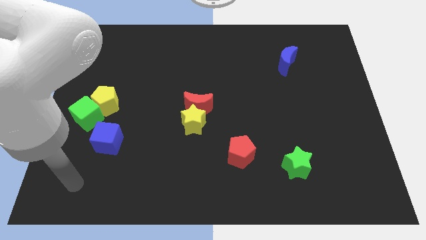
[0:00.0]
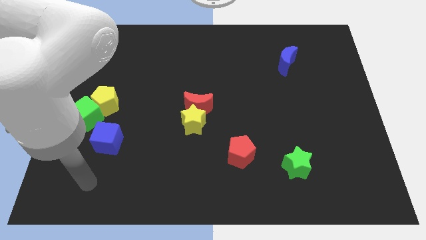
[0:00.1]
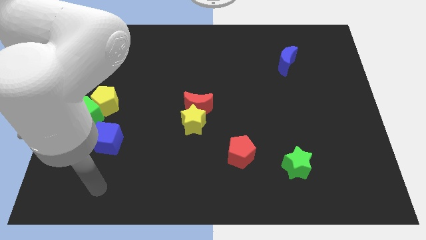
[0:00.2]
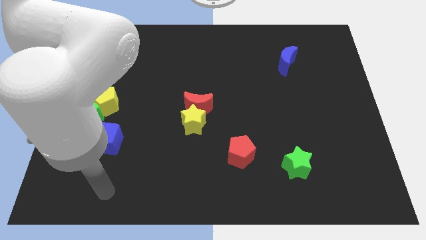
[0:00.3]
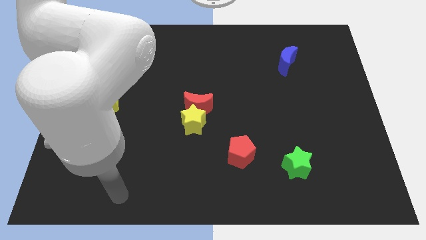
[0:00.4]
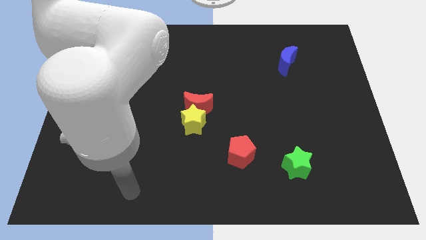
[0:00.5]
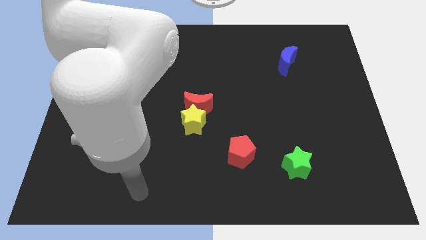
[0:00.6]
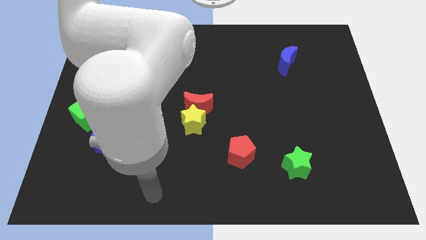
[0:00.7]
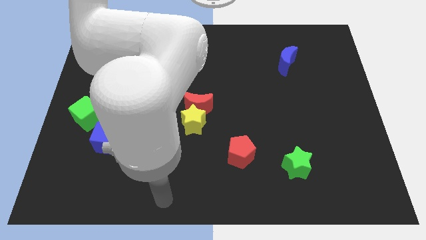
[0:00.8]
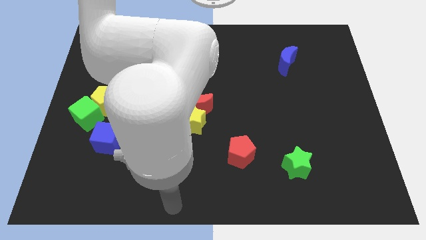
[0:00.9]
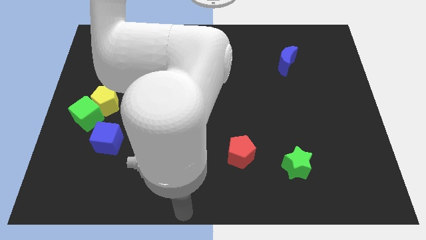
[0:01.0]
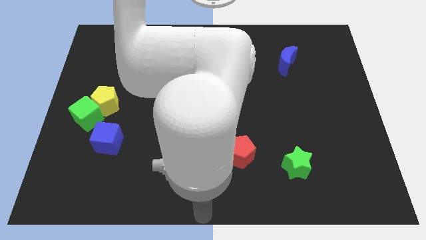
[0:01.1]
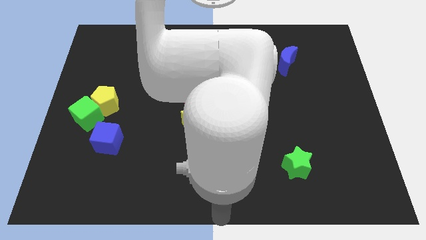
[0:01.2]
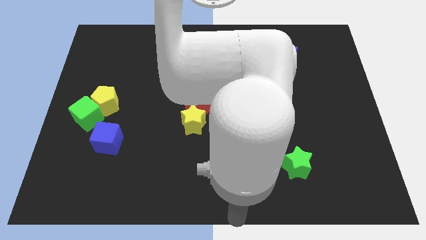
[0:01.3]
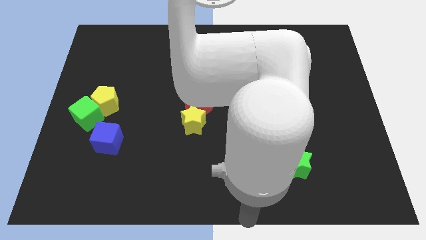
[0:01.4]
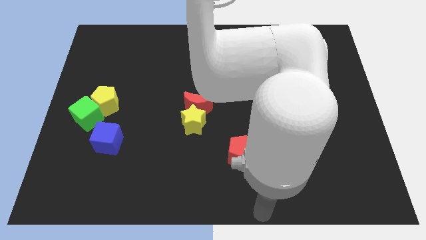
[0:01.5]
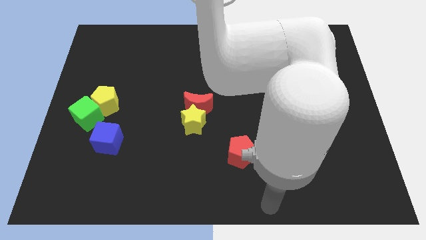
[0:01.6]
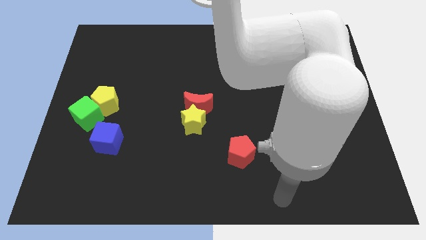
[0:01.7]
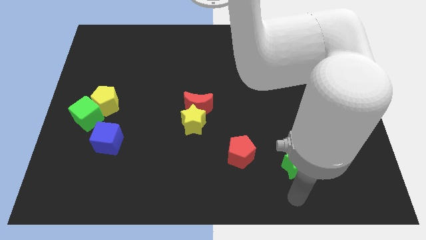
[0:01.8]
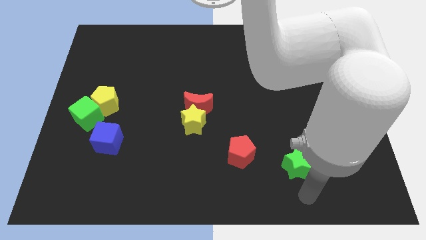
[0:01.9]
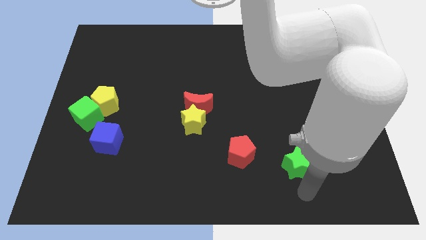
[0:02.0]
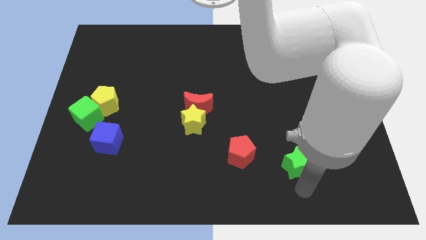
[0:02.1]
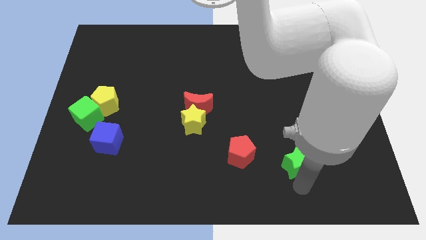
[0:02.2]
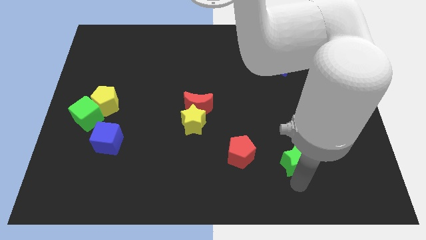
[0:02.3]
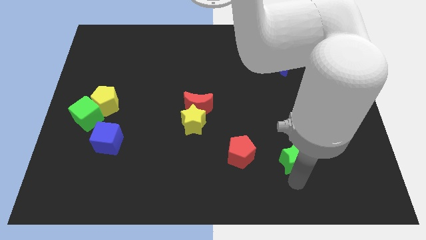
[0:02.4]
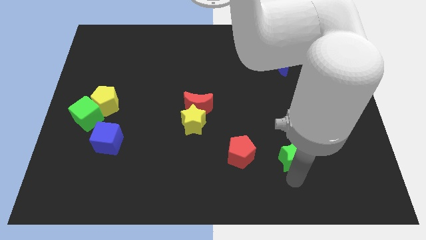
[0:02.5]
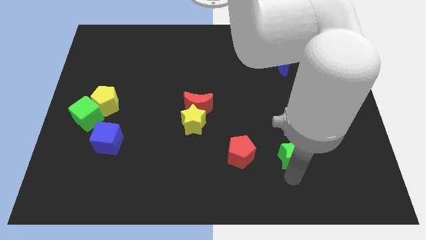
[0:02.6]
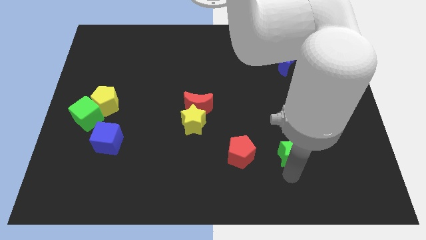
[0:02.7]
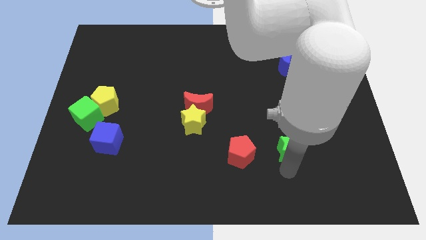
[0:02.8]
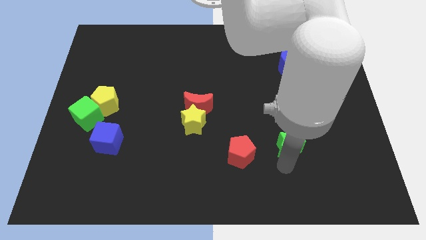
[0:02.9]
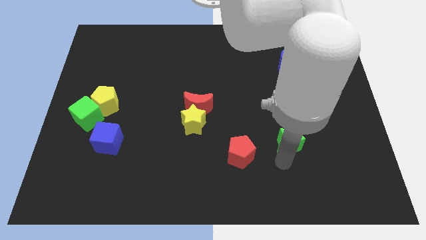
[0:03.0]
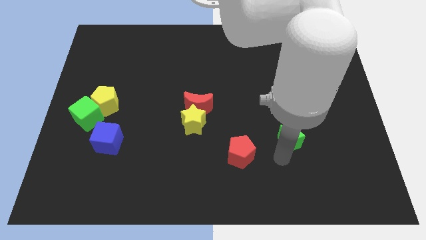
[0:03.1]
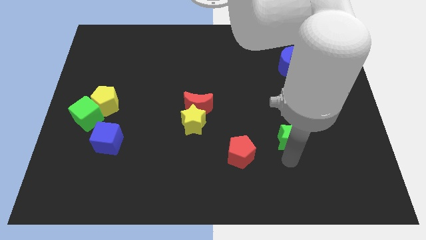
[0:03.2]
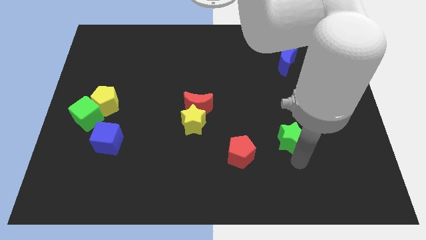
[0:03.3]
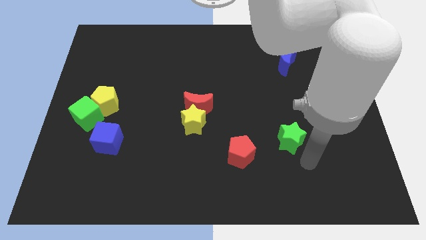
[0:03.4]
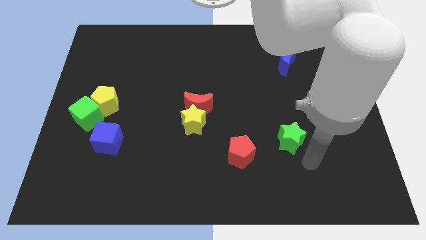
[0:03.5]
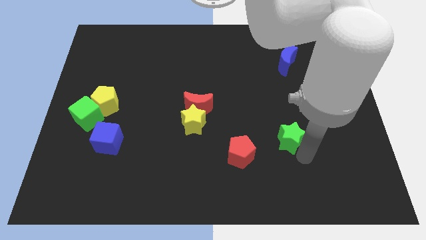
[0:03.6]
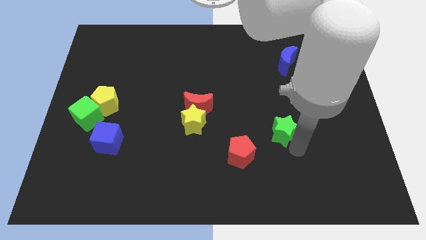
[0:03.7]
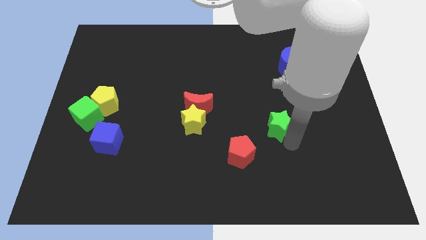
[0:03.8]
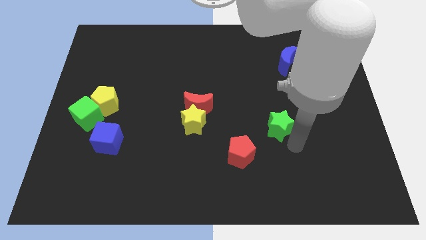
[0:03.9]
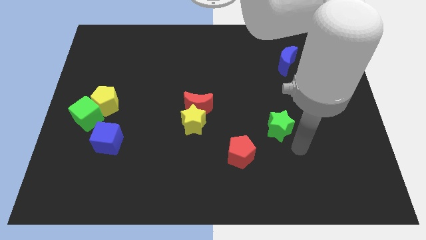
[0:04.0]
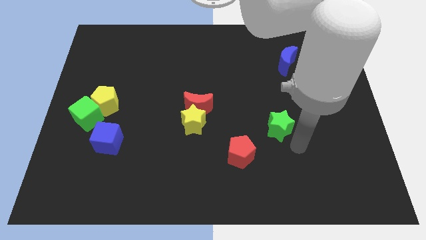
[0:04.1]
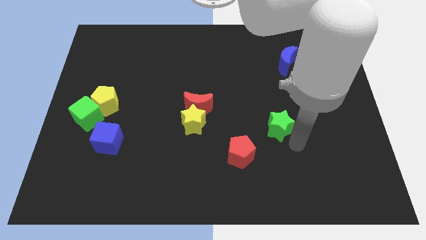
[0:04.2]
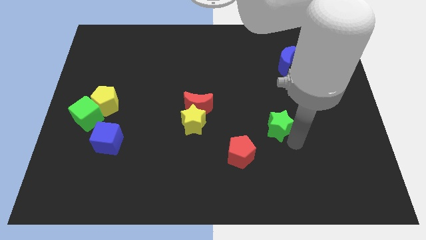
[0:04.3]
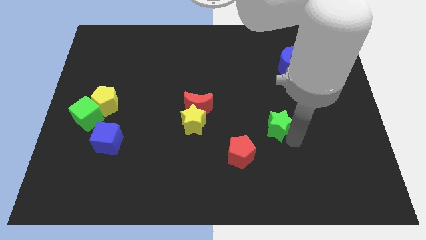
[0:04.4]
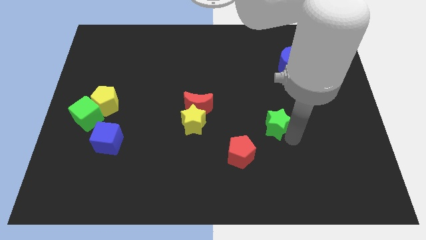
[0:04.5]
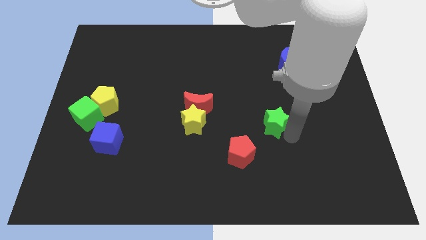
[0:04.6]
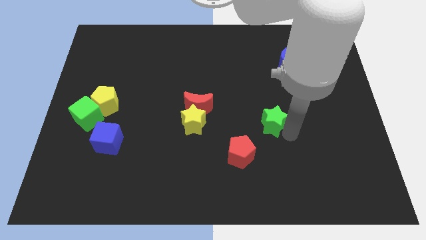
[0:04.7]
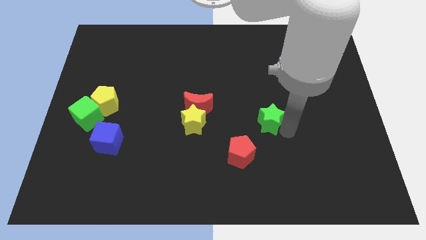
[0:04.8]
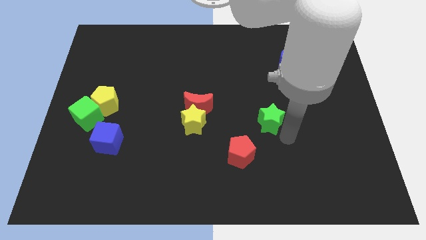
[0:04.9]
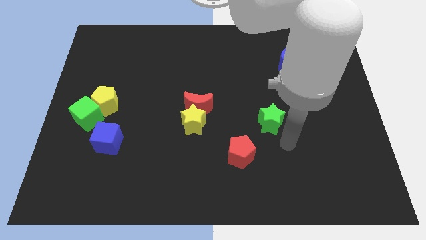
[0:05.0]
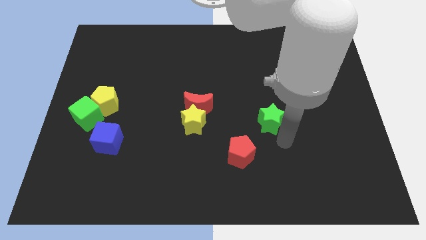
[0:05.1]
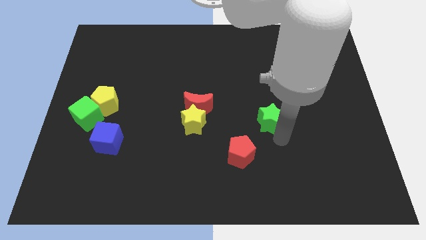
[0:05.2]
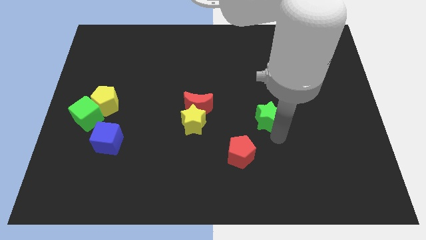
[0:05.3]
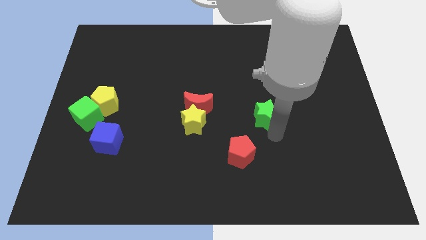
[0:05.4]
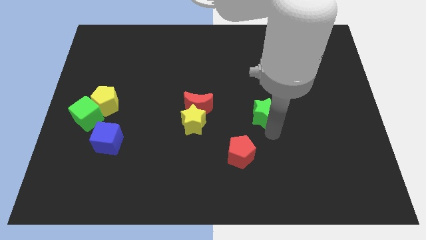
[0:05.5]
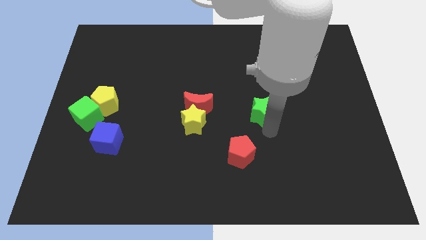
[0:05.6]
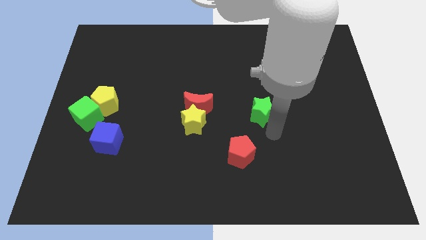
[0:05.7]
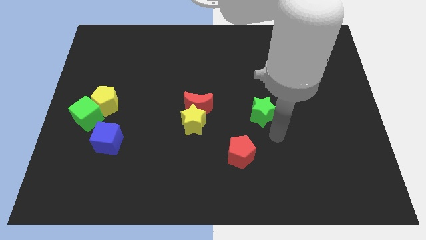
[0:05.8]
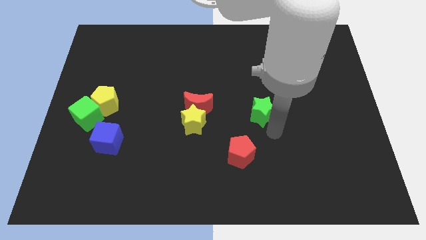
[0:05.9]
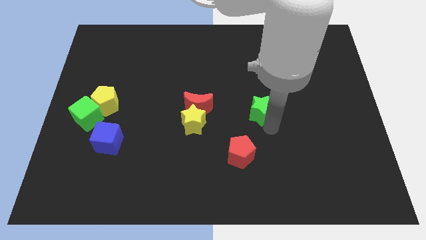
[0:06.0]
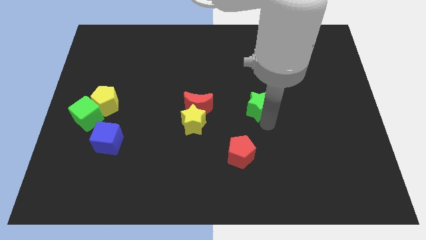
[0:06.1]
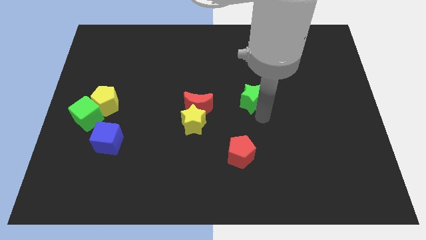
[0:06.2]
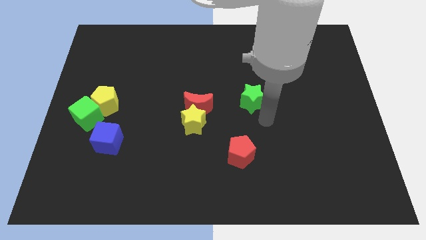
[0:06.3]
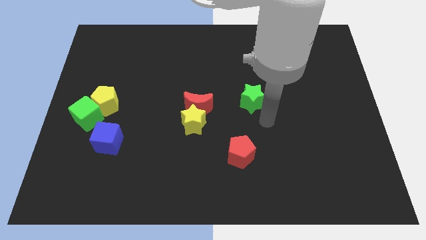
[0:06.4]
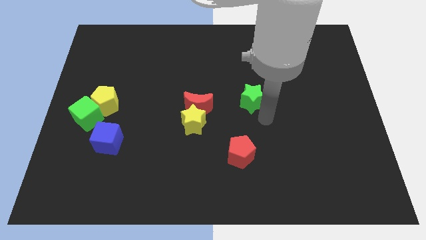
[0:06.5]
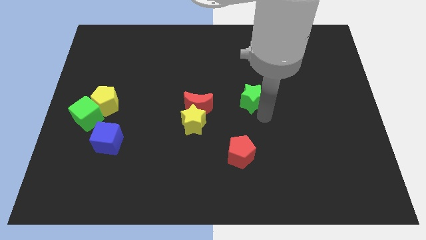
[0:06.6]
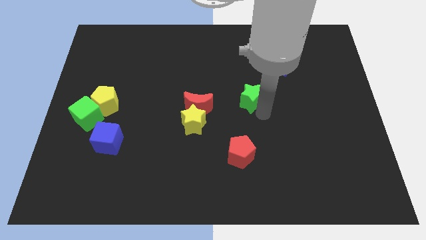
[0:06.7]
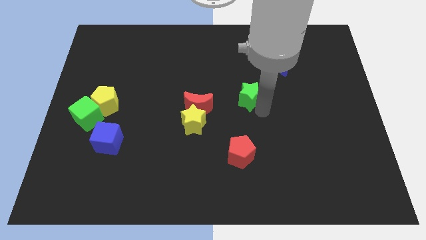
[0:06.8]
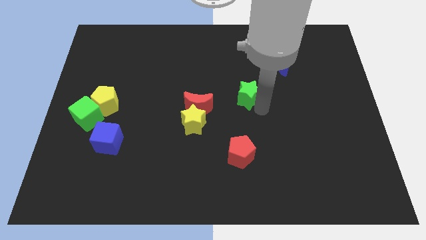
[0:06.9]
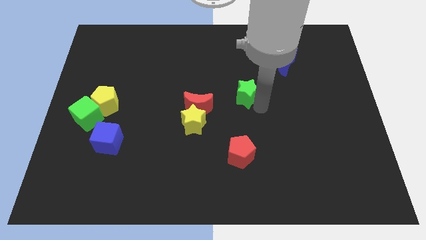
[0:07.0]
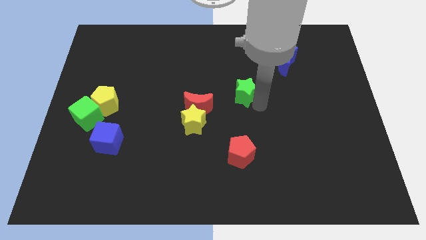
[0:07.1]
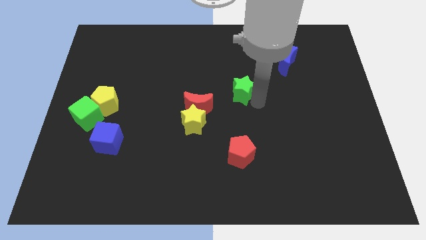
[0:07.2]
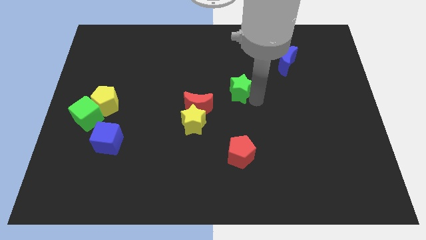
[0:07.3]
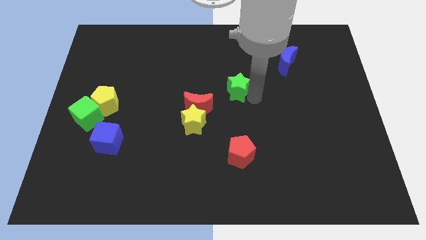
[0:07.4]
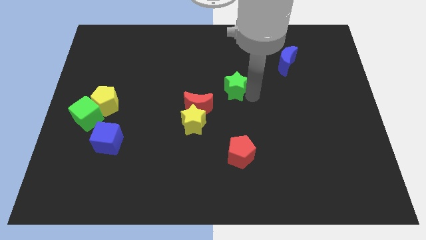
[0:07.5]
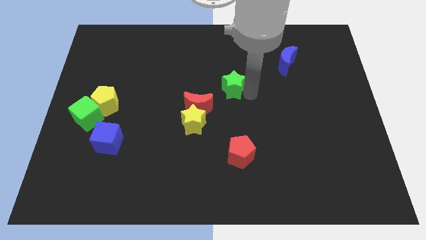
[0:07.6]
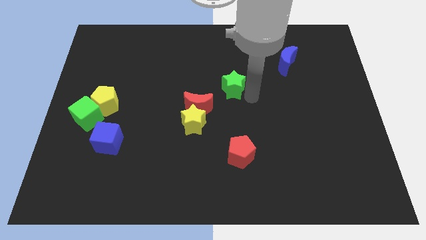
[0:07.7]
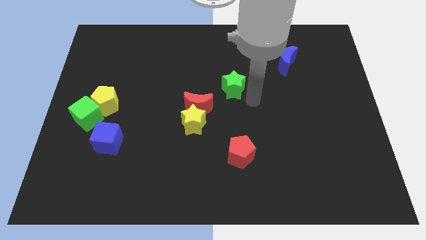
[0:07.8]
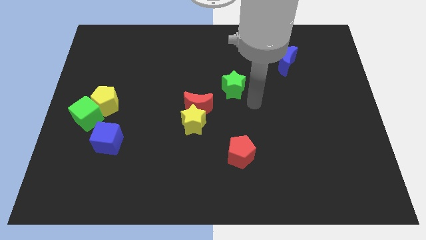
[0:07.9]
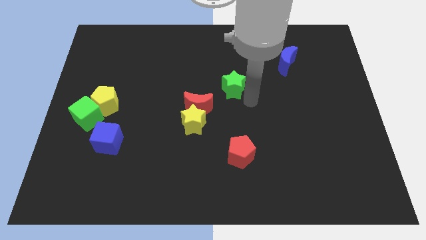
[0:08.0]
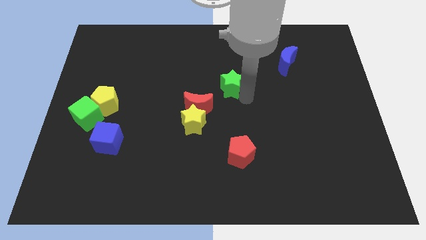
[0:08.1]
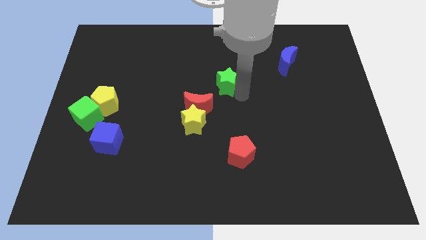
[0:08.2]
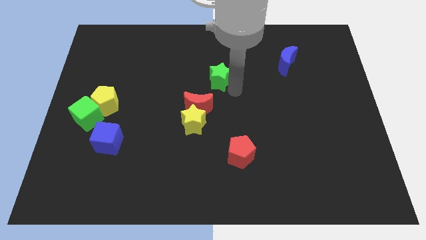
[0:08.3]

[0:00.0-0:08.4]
slide the green star to the top side of the red moon
